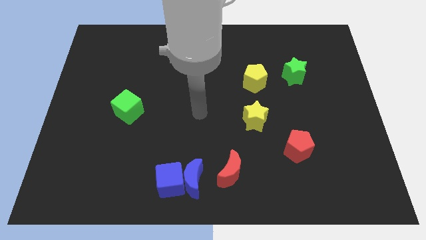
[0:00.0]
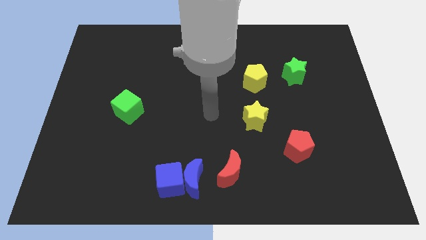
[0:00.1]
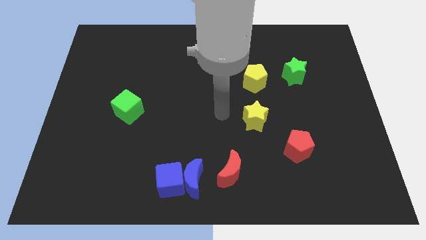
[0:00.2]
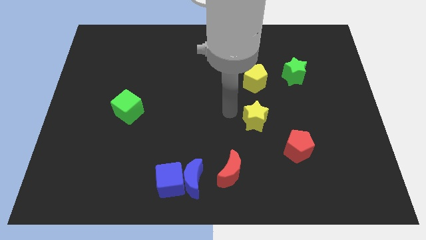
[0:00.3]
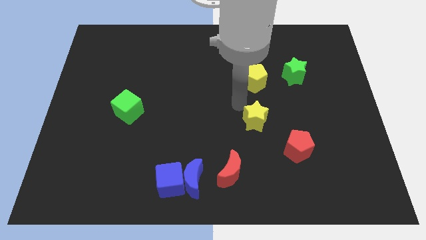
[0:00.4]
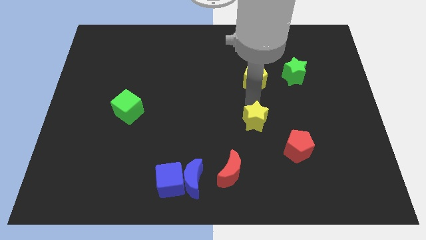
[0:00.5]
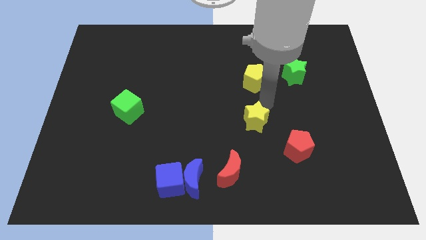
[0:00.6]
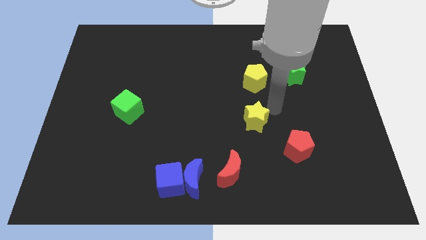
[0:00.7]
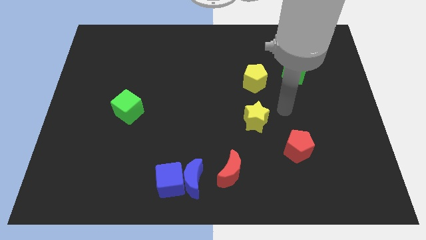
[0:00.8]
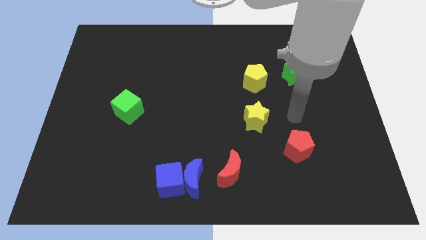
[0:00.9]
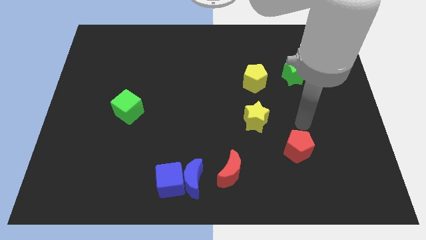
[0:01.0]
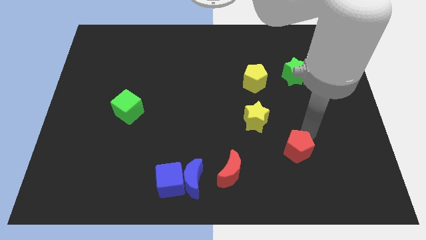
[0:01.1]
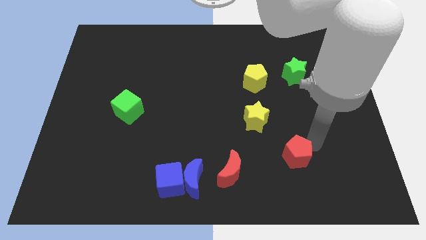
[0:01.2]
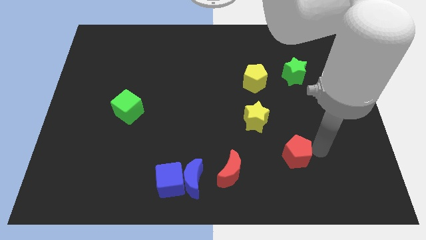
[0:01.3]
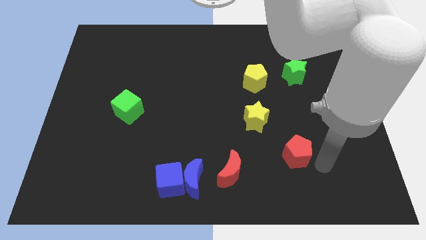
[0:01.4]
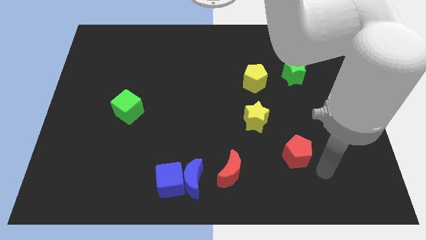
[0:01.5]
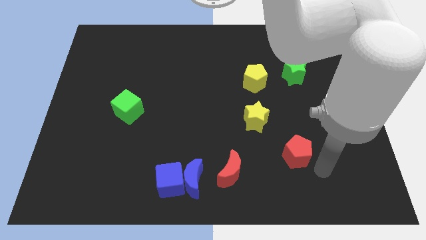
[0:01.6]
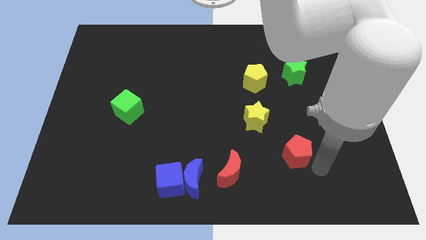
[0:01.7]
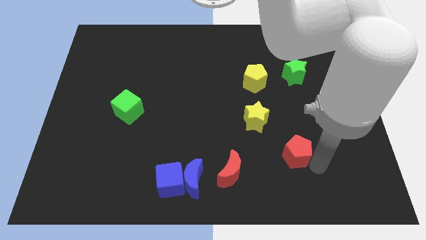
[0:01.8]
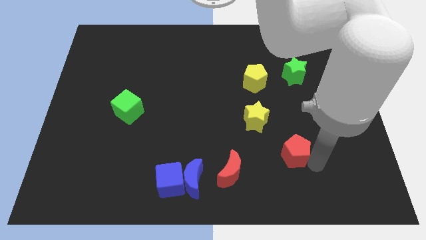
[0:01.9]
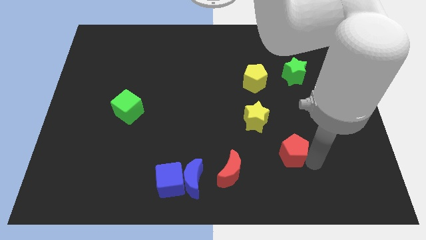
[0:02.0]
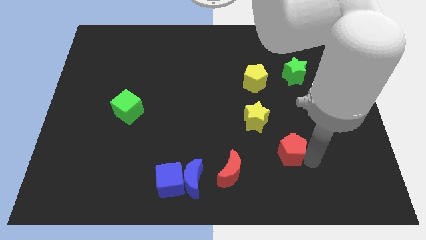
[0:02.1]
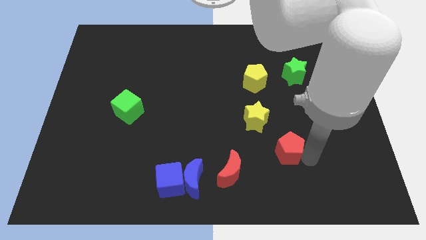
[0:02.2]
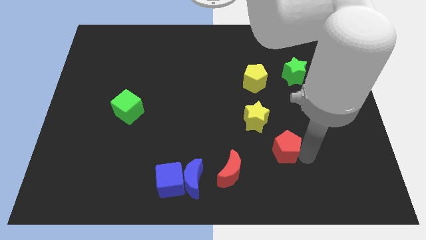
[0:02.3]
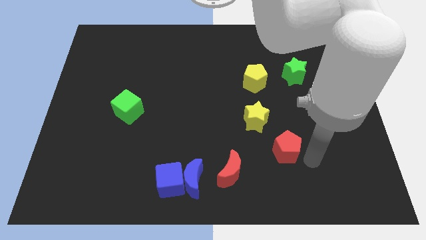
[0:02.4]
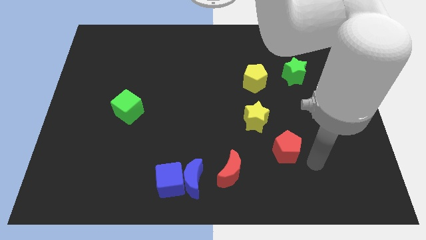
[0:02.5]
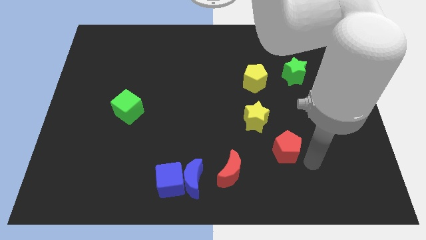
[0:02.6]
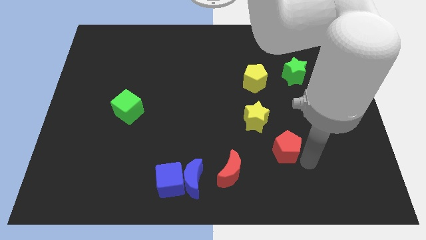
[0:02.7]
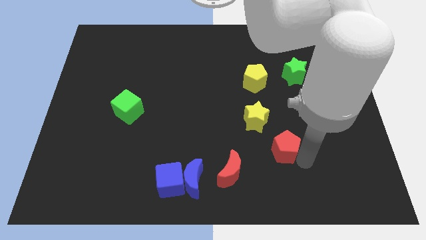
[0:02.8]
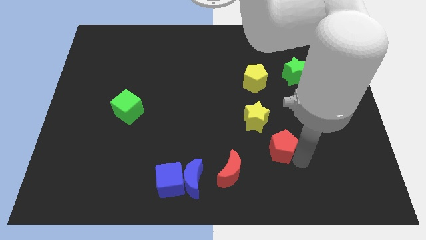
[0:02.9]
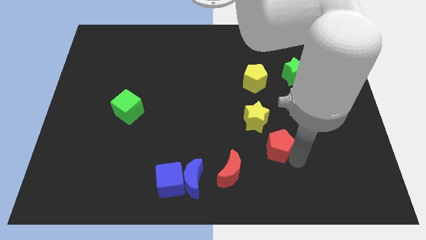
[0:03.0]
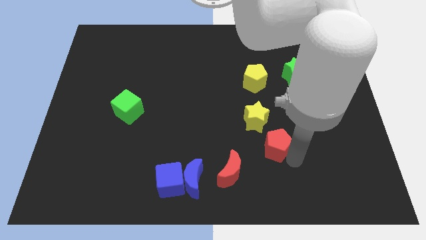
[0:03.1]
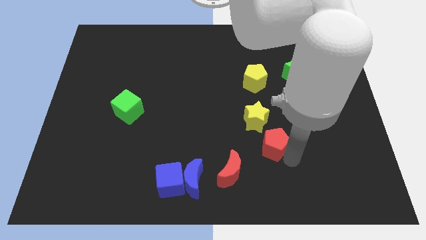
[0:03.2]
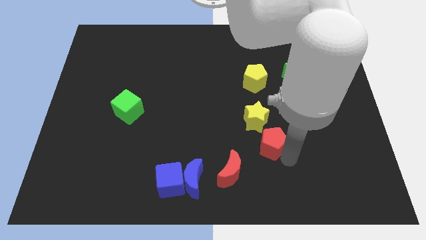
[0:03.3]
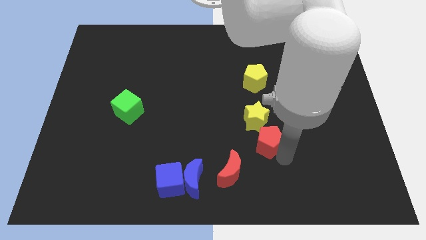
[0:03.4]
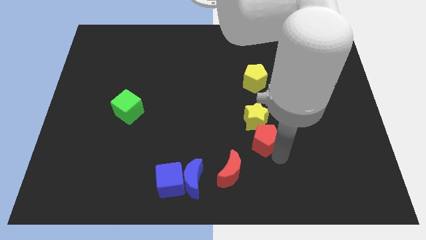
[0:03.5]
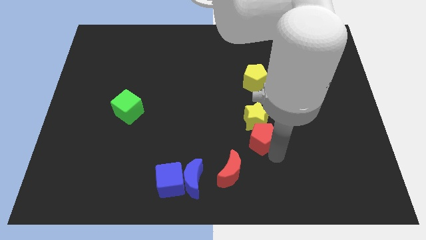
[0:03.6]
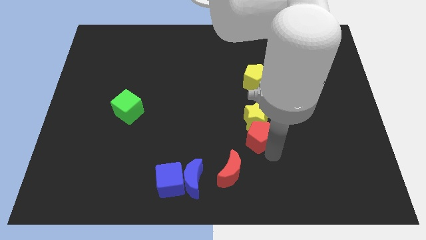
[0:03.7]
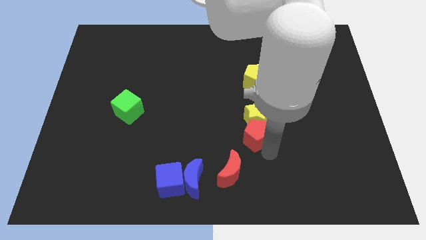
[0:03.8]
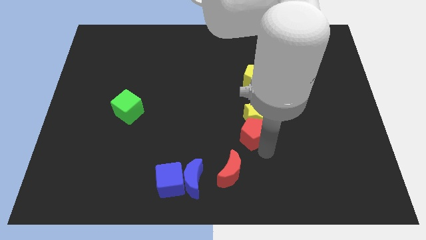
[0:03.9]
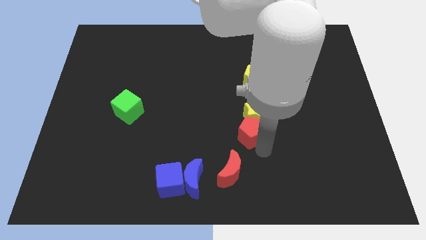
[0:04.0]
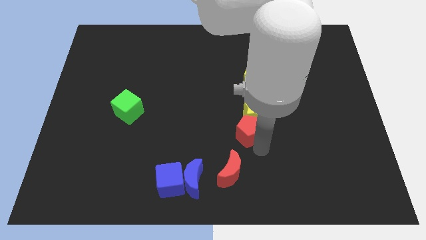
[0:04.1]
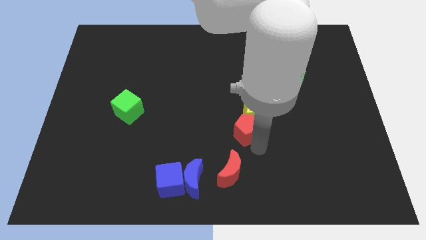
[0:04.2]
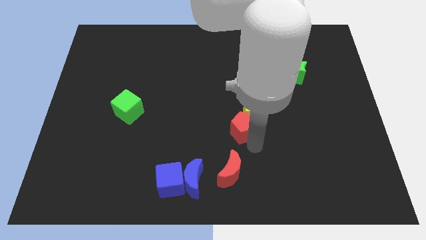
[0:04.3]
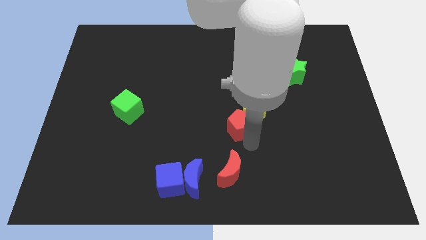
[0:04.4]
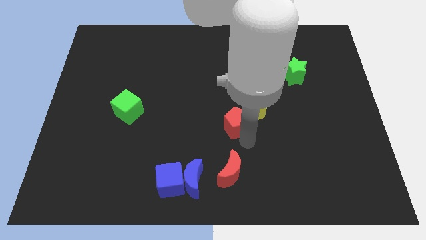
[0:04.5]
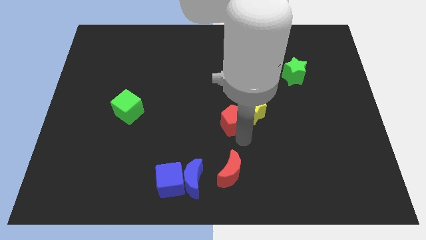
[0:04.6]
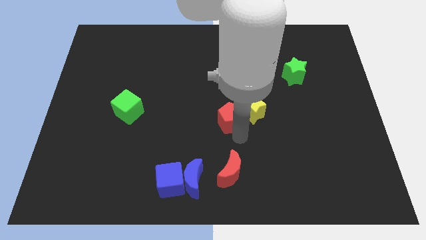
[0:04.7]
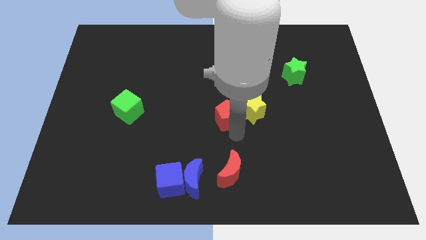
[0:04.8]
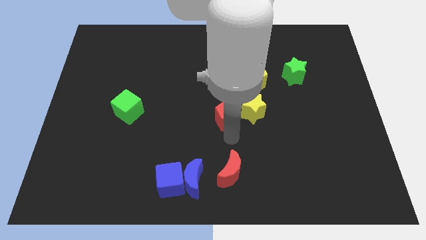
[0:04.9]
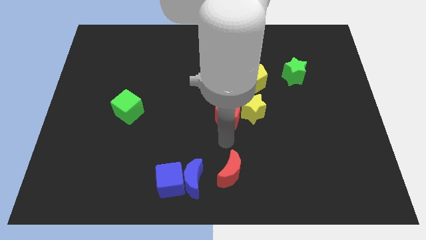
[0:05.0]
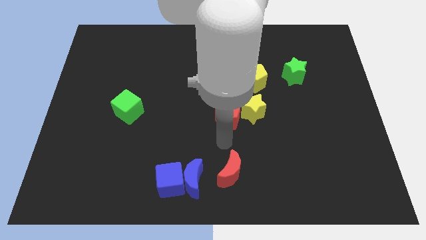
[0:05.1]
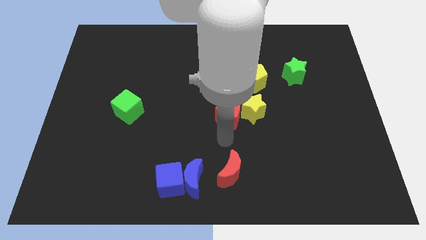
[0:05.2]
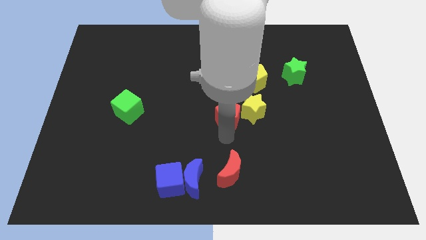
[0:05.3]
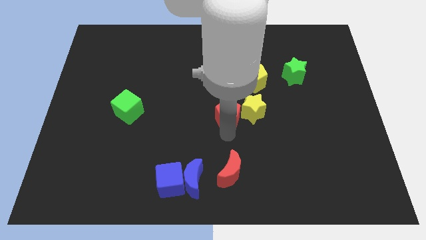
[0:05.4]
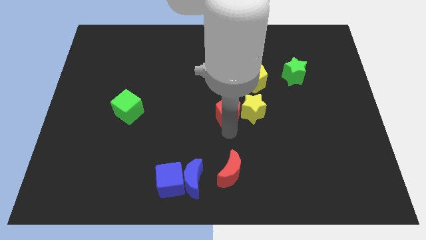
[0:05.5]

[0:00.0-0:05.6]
push the red pentagon to the top left of the yellow star

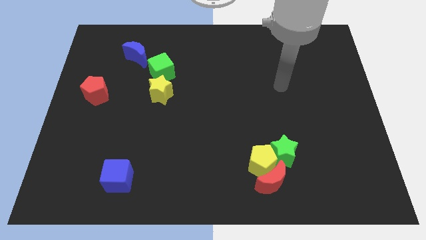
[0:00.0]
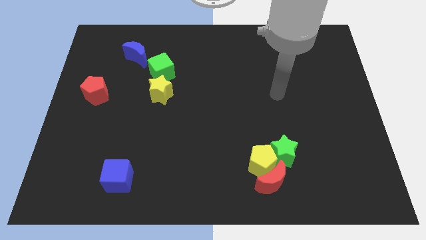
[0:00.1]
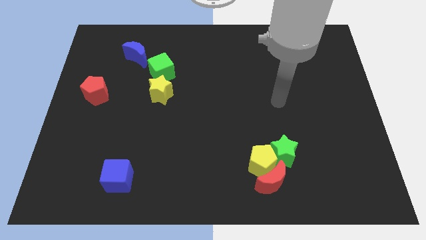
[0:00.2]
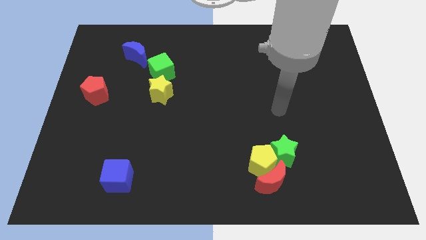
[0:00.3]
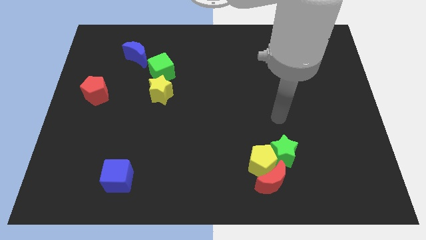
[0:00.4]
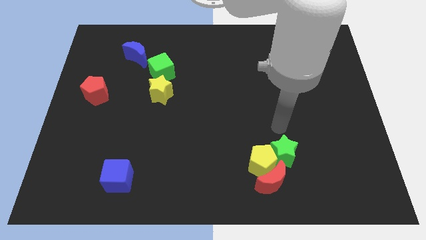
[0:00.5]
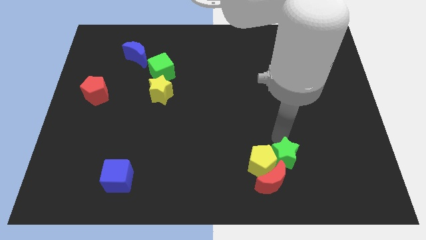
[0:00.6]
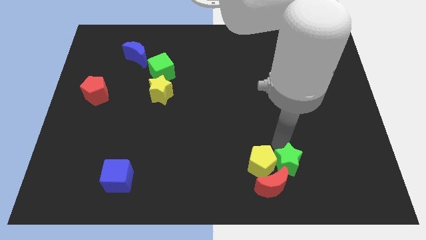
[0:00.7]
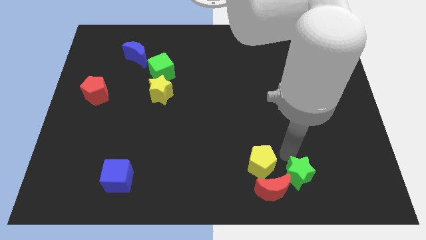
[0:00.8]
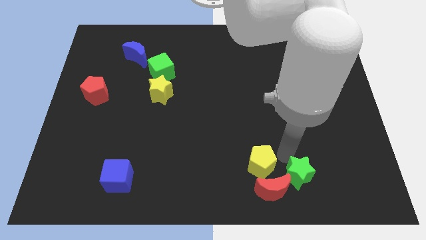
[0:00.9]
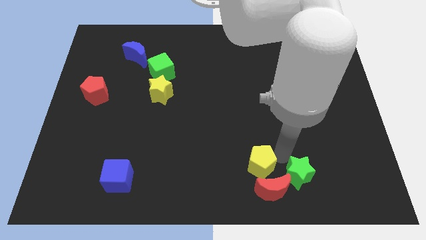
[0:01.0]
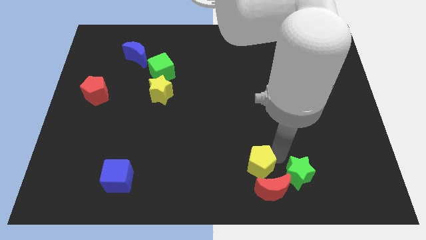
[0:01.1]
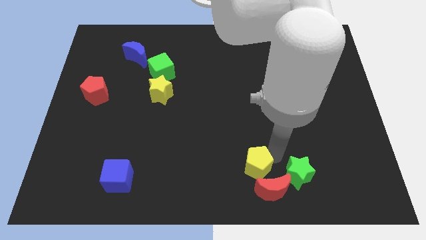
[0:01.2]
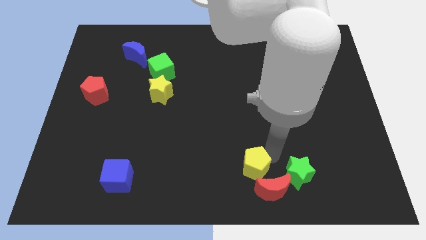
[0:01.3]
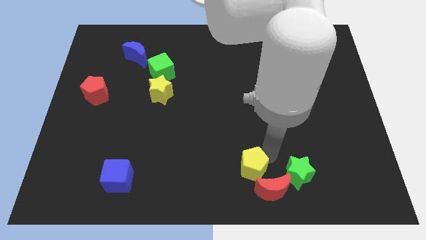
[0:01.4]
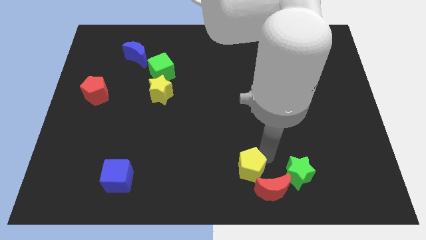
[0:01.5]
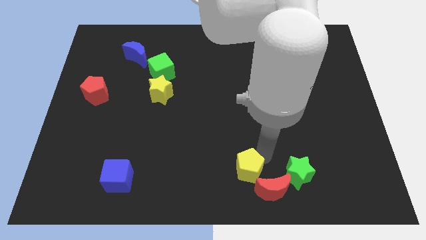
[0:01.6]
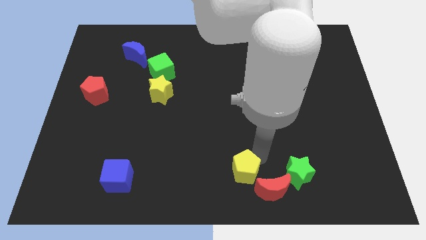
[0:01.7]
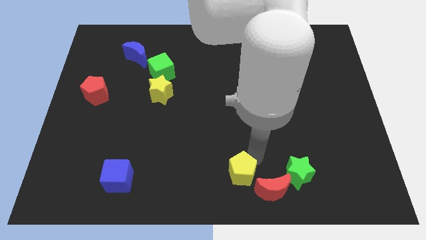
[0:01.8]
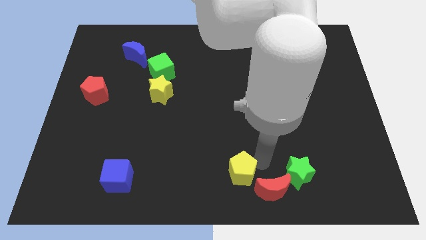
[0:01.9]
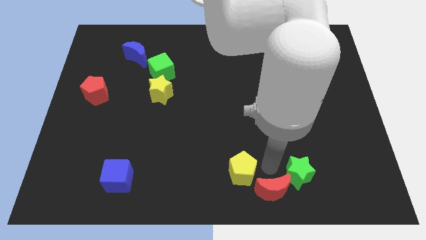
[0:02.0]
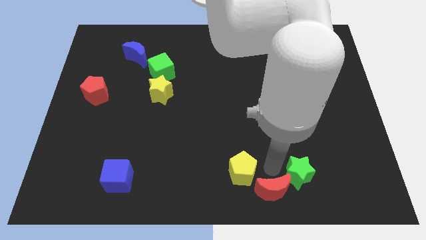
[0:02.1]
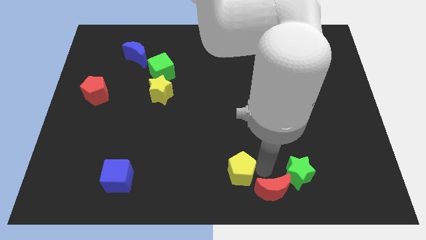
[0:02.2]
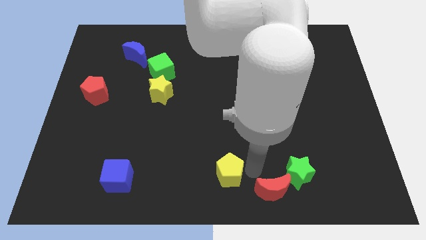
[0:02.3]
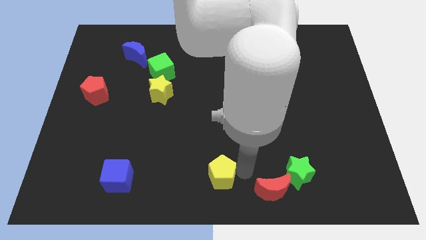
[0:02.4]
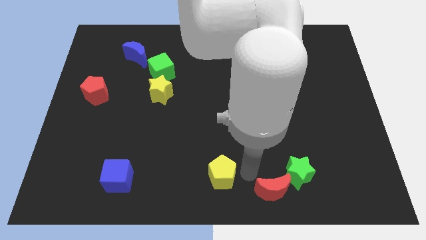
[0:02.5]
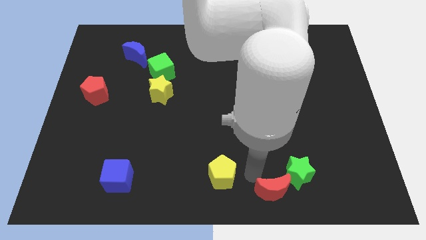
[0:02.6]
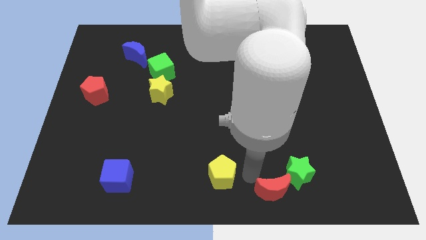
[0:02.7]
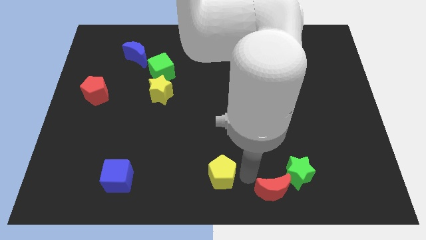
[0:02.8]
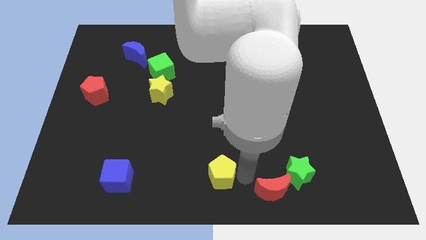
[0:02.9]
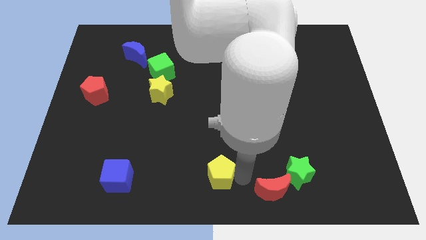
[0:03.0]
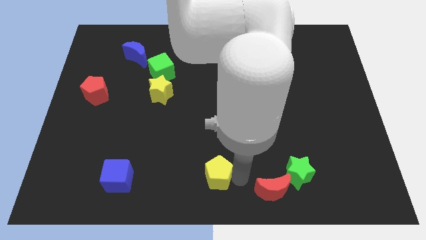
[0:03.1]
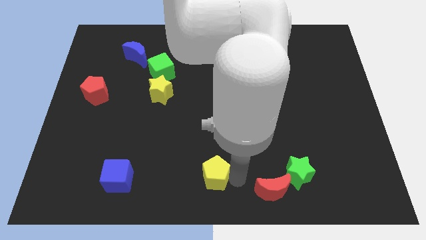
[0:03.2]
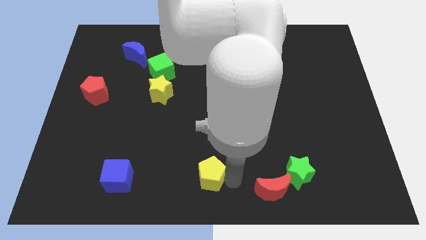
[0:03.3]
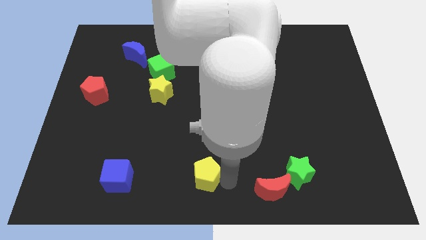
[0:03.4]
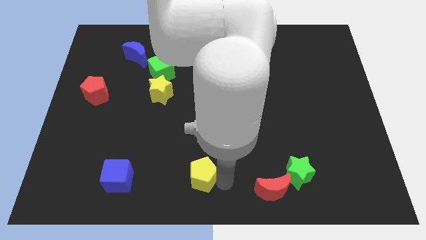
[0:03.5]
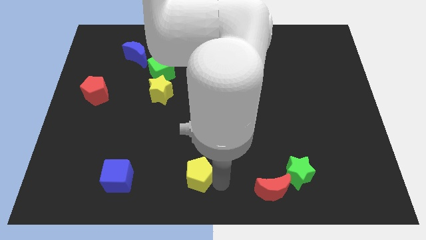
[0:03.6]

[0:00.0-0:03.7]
slide the yellow pentagon right of the blue cube
